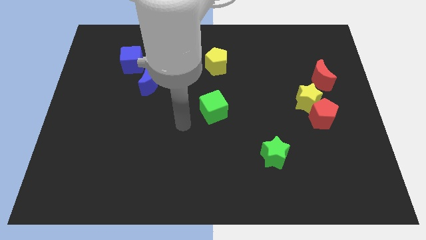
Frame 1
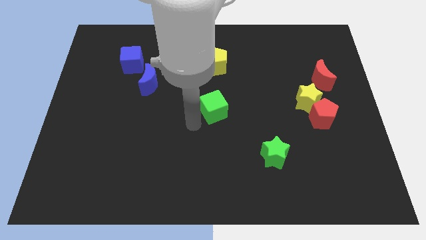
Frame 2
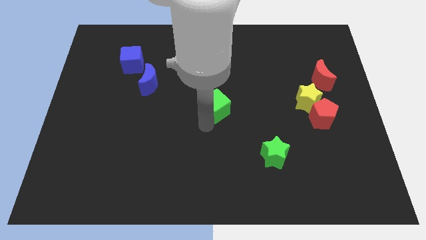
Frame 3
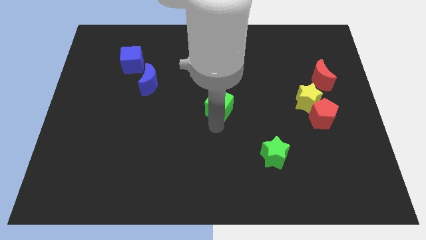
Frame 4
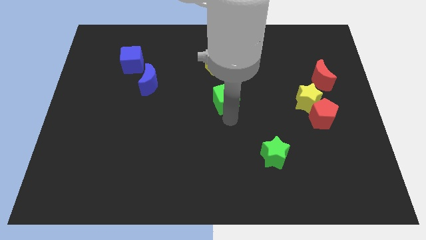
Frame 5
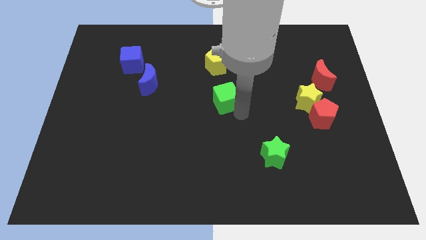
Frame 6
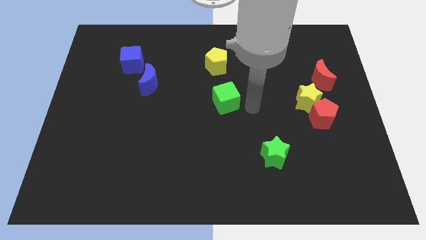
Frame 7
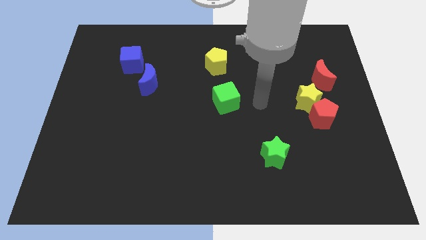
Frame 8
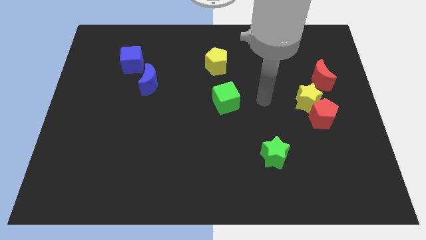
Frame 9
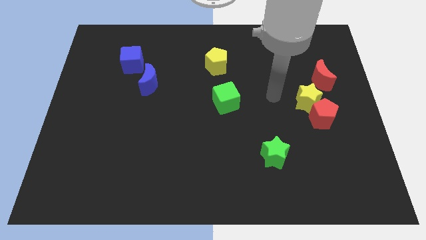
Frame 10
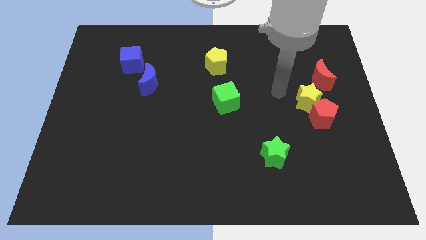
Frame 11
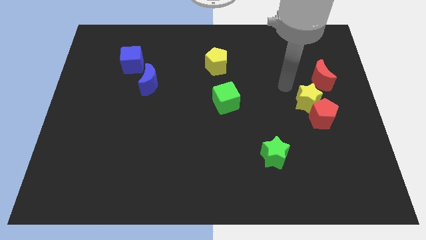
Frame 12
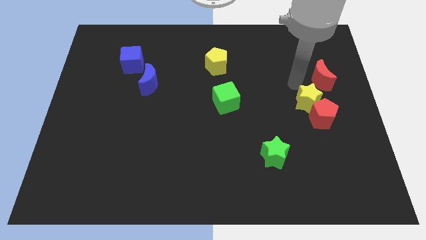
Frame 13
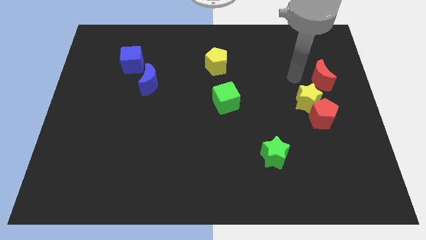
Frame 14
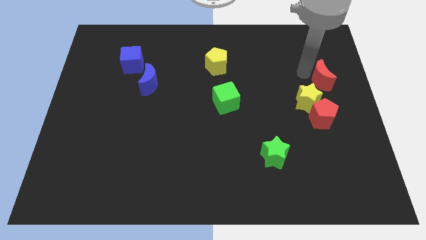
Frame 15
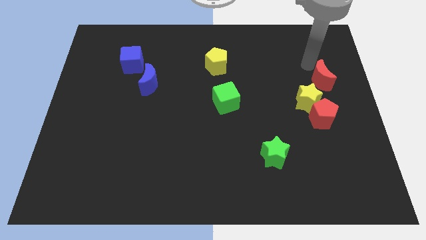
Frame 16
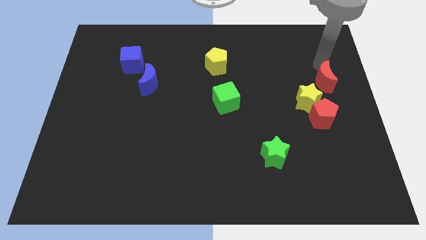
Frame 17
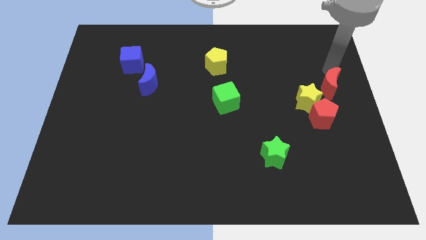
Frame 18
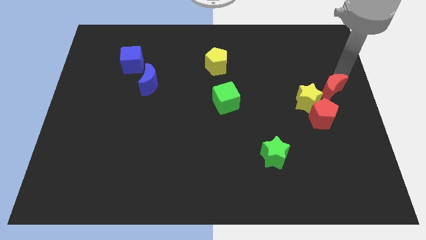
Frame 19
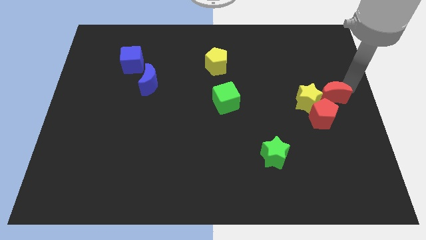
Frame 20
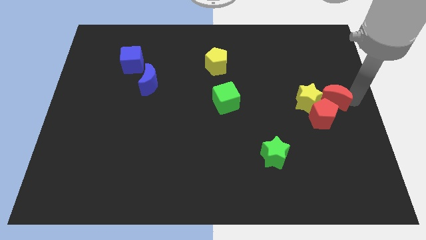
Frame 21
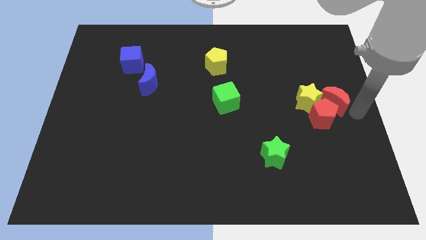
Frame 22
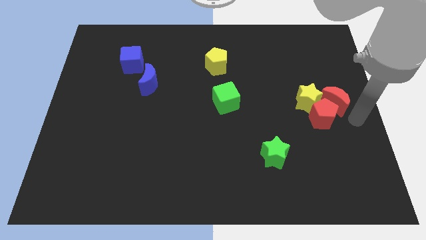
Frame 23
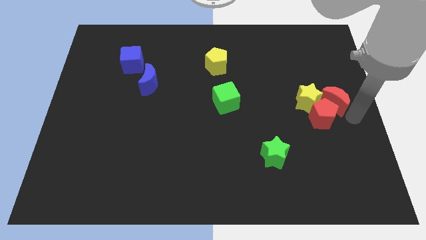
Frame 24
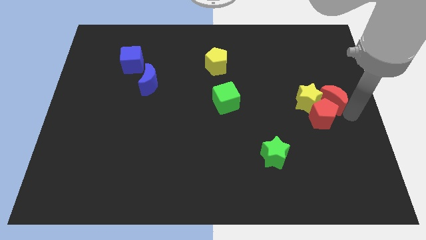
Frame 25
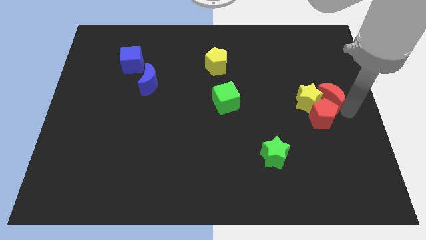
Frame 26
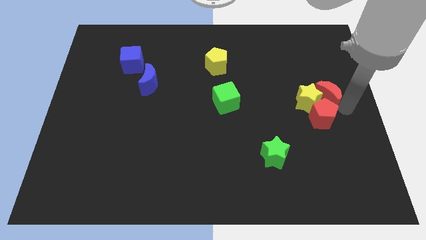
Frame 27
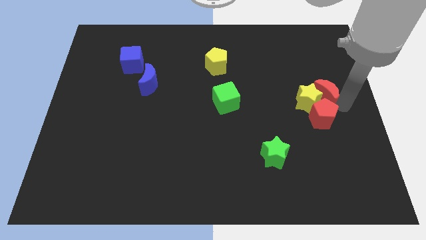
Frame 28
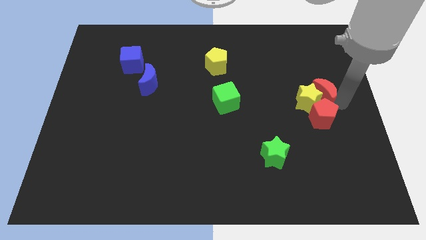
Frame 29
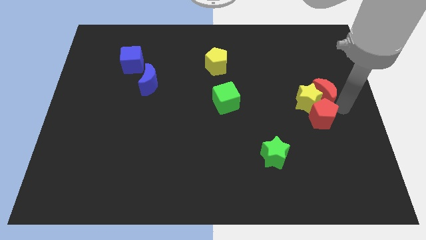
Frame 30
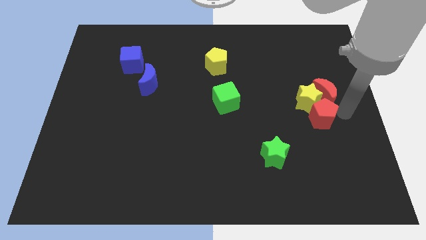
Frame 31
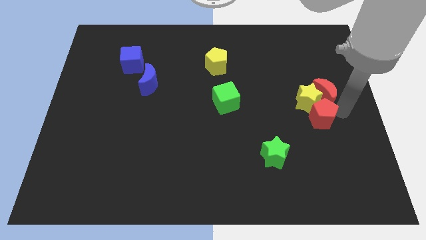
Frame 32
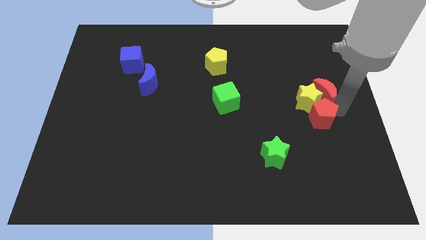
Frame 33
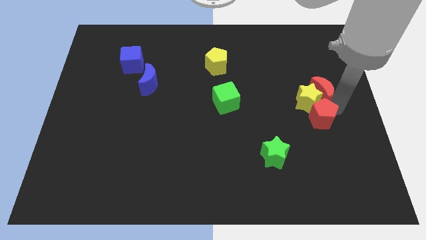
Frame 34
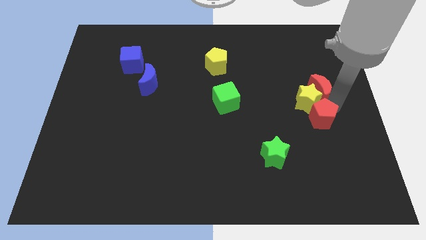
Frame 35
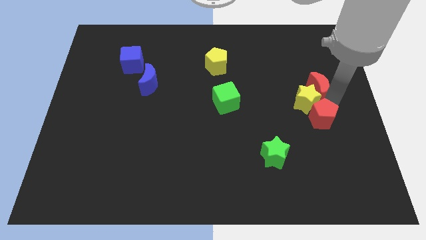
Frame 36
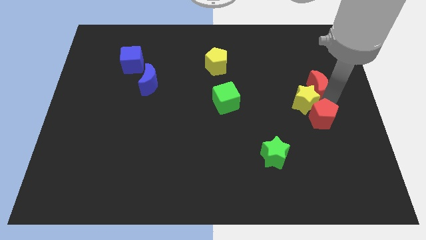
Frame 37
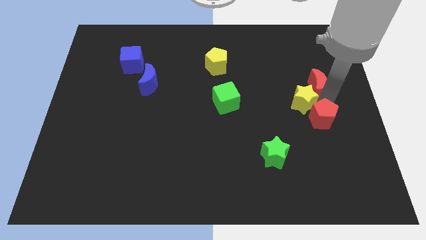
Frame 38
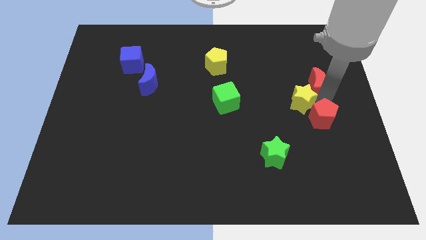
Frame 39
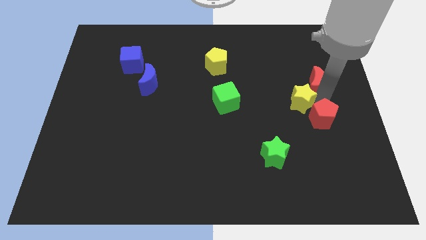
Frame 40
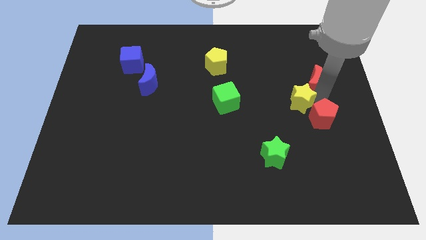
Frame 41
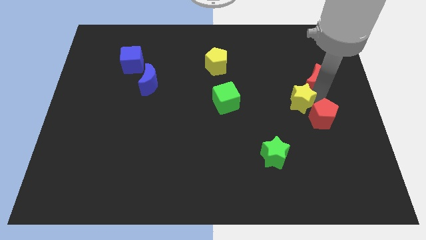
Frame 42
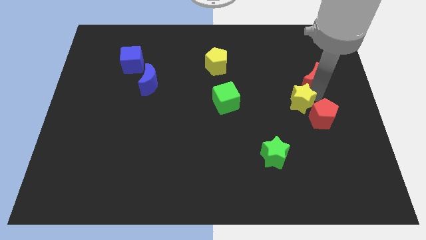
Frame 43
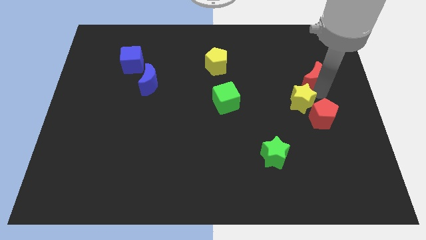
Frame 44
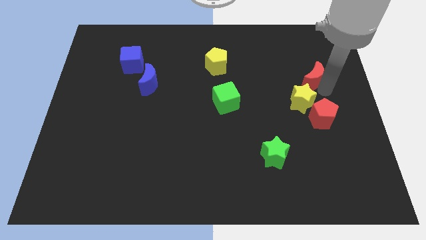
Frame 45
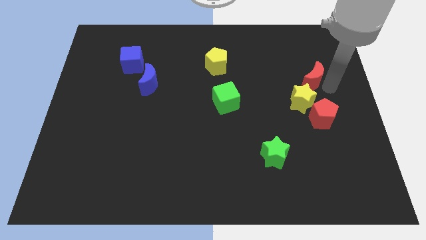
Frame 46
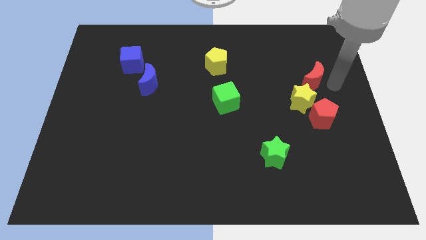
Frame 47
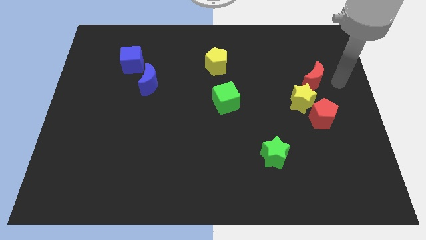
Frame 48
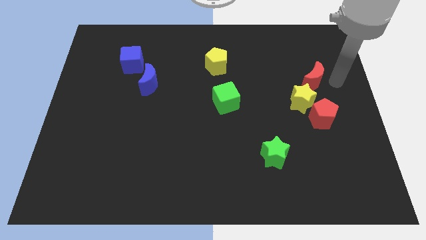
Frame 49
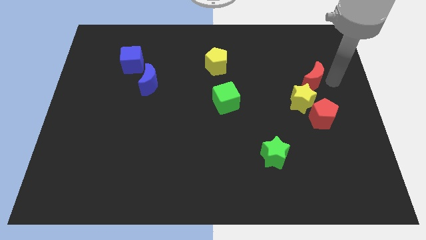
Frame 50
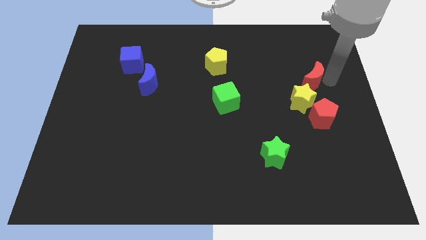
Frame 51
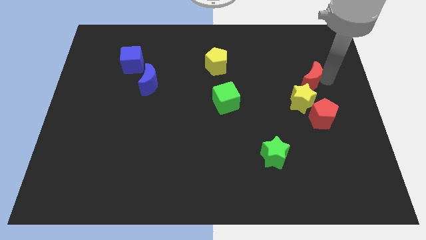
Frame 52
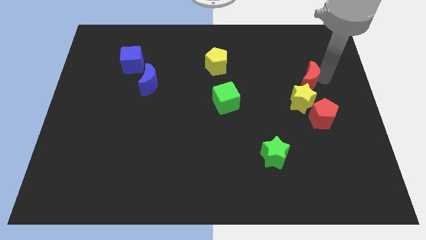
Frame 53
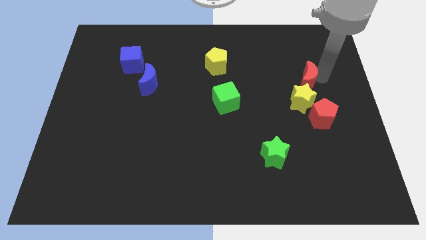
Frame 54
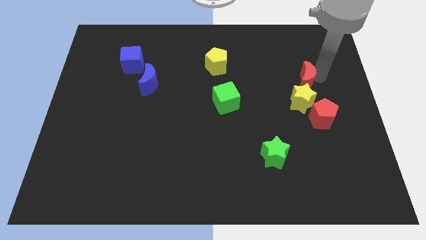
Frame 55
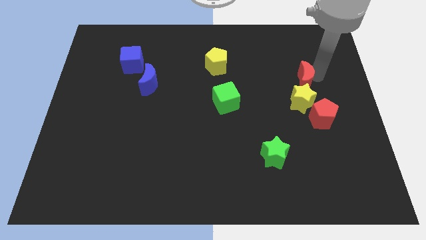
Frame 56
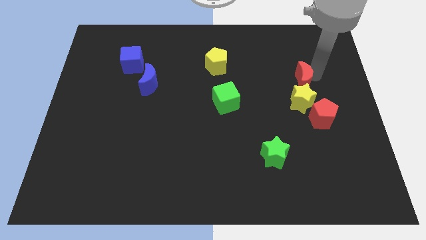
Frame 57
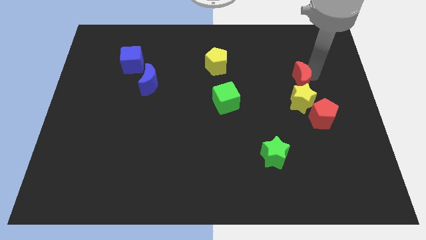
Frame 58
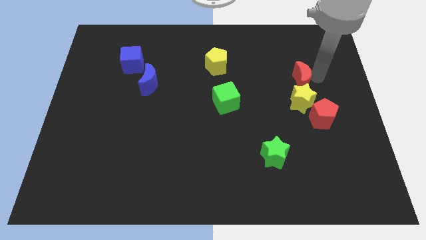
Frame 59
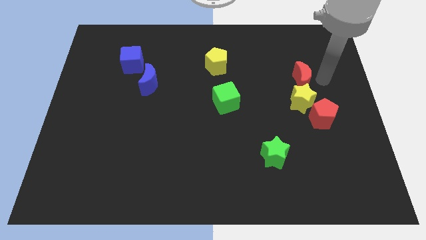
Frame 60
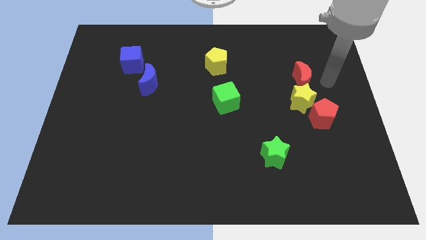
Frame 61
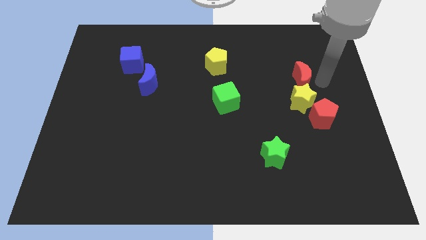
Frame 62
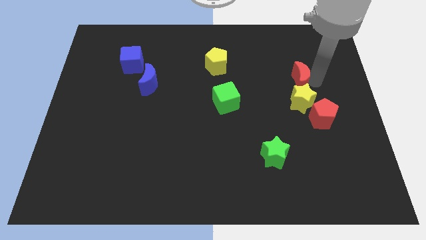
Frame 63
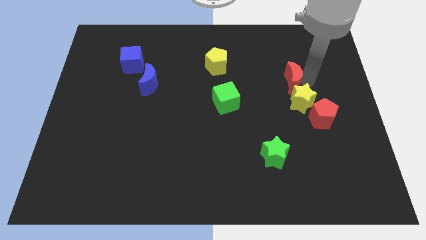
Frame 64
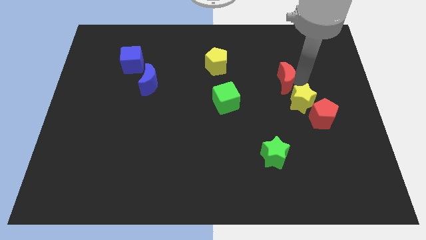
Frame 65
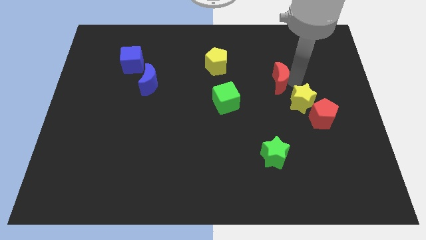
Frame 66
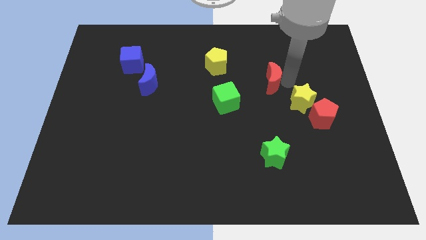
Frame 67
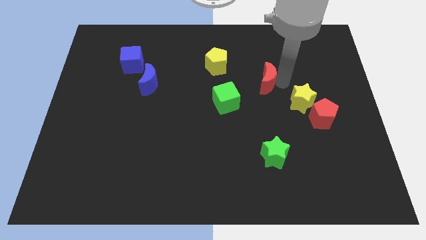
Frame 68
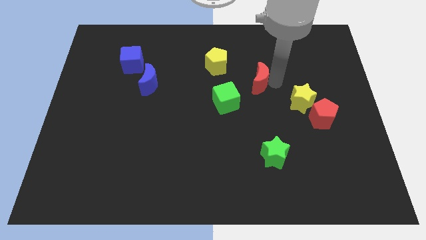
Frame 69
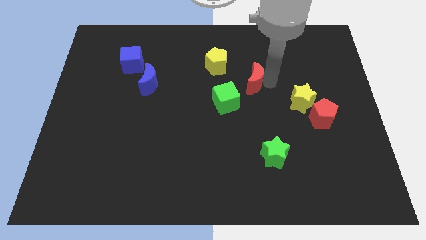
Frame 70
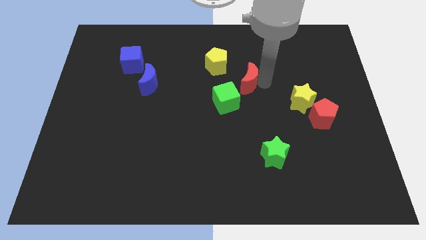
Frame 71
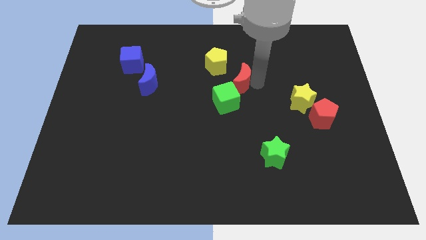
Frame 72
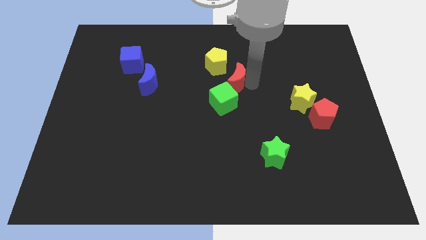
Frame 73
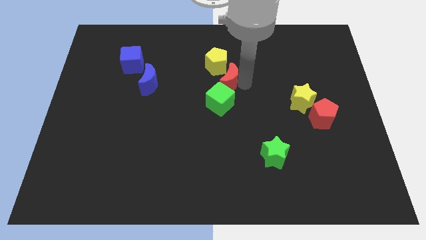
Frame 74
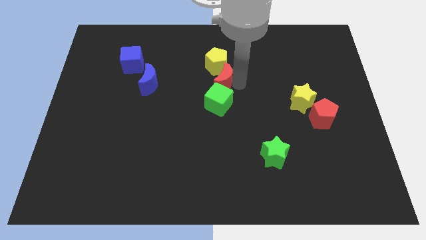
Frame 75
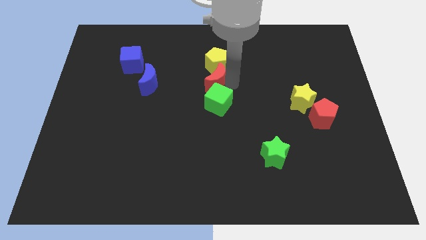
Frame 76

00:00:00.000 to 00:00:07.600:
move the red moon to the bottom left side of the yellow pentagon
